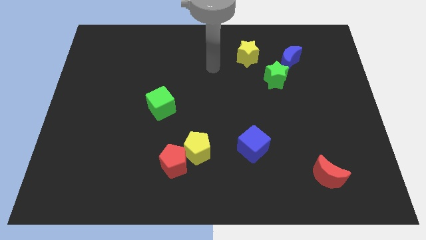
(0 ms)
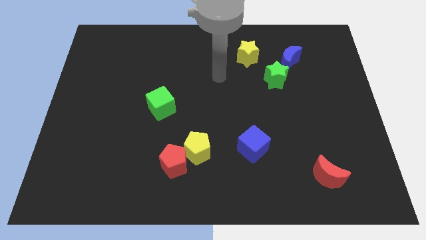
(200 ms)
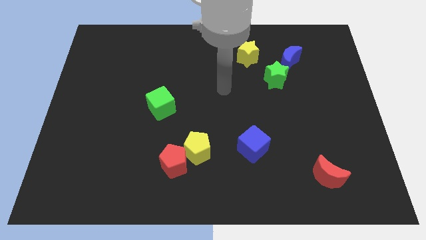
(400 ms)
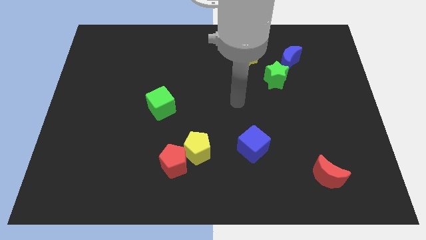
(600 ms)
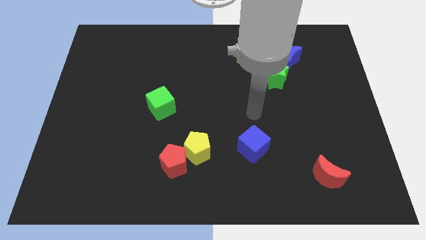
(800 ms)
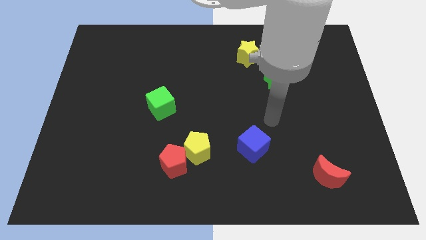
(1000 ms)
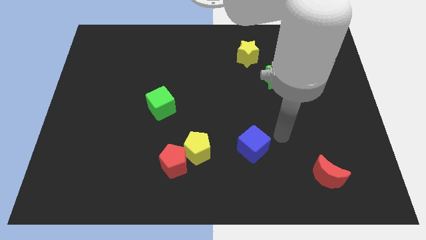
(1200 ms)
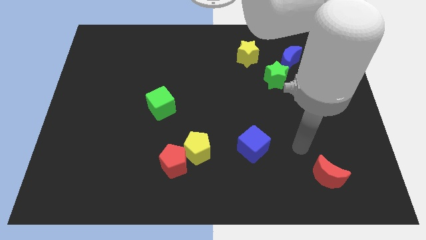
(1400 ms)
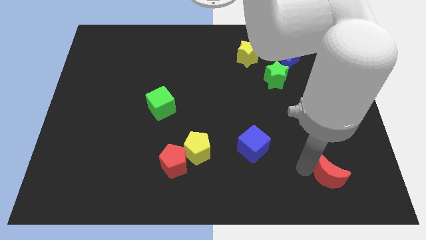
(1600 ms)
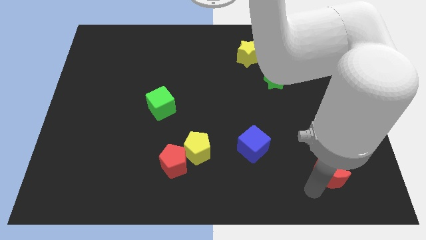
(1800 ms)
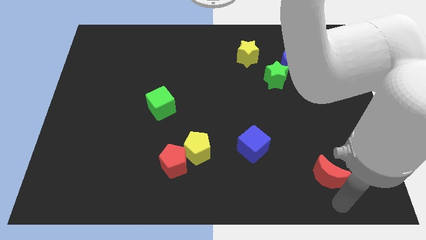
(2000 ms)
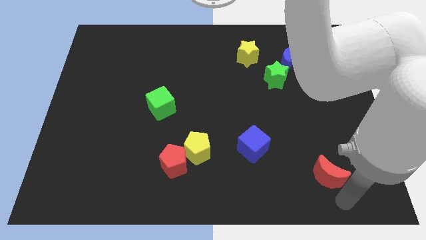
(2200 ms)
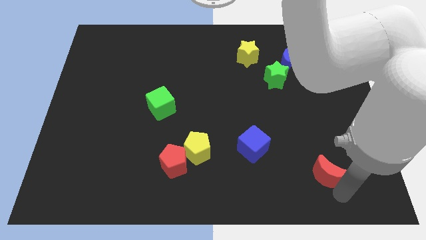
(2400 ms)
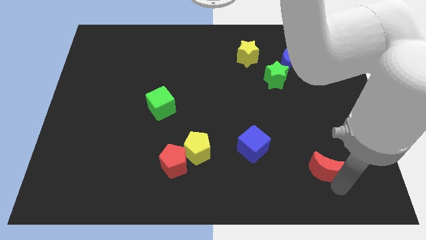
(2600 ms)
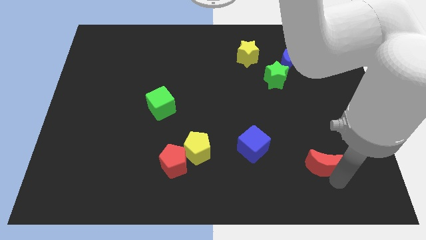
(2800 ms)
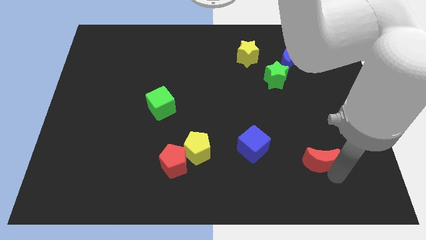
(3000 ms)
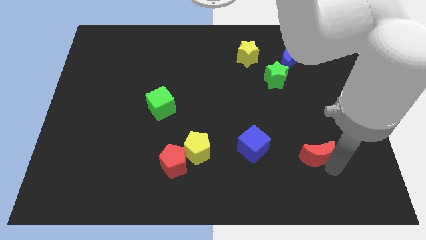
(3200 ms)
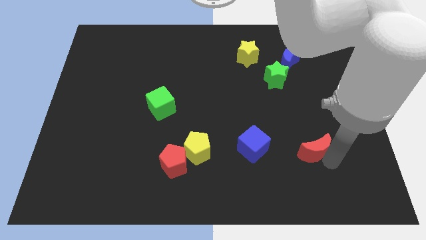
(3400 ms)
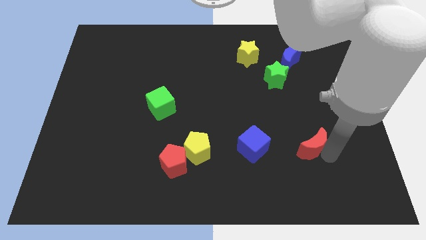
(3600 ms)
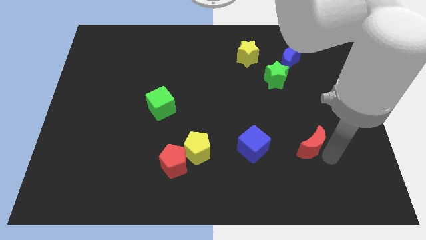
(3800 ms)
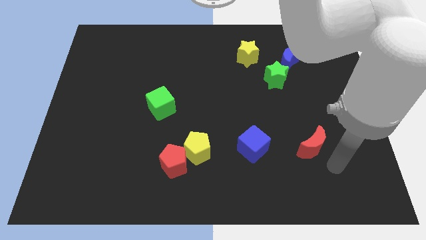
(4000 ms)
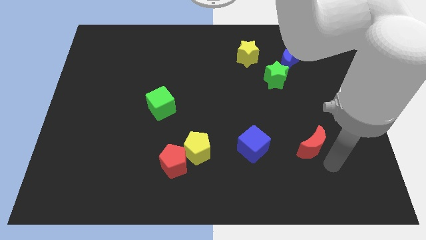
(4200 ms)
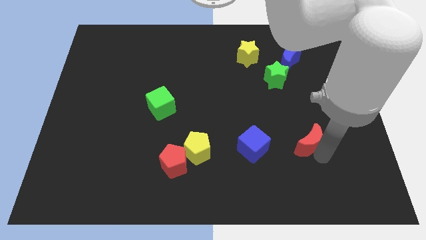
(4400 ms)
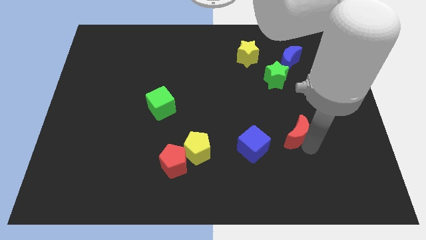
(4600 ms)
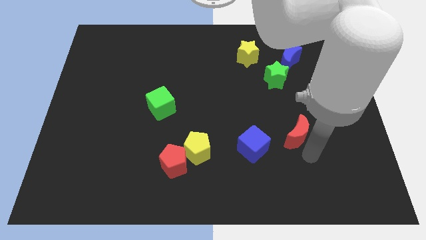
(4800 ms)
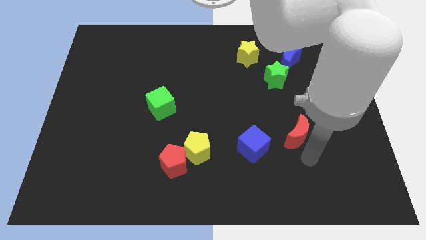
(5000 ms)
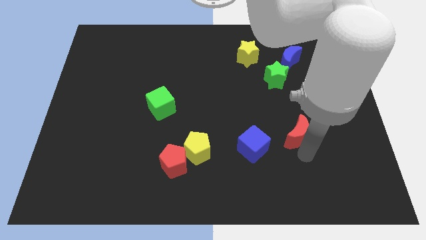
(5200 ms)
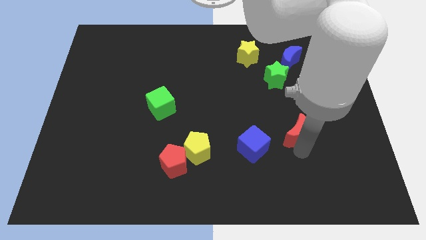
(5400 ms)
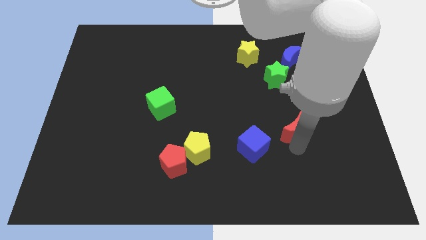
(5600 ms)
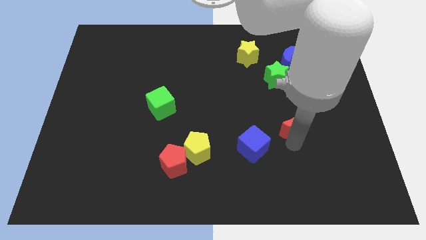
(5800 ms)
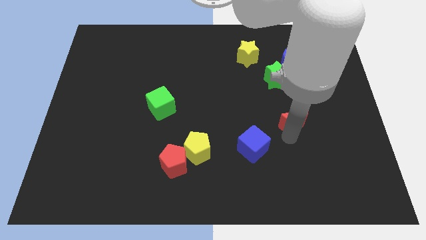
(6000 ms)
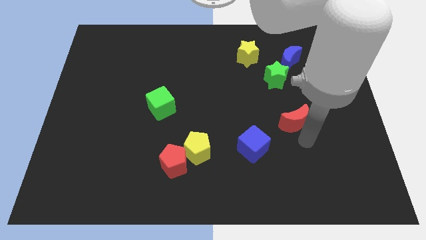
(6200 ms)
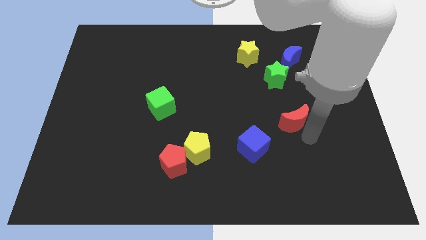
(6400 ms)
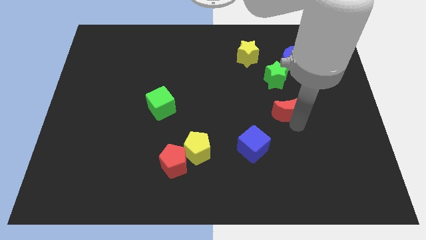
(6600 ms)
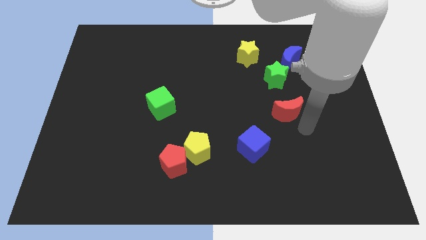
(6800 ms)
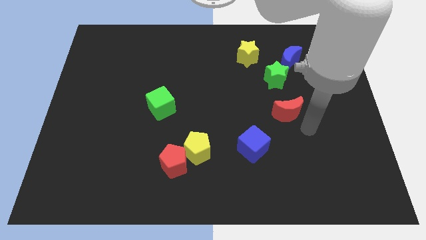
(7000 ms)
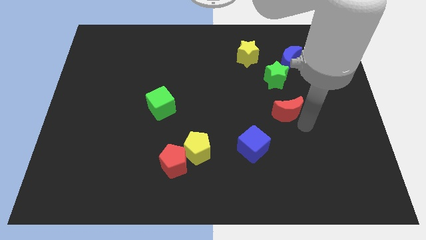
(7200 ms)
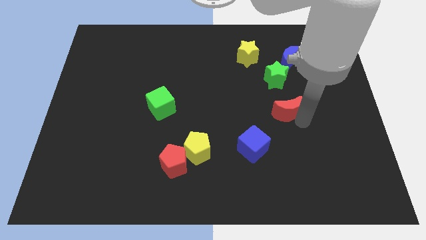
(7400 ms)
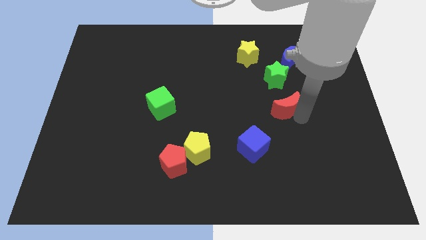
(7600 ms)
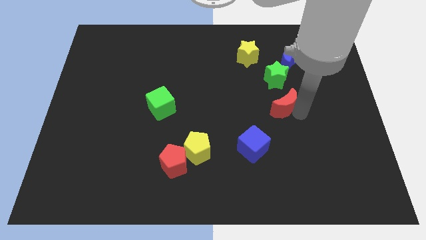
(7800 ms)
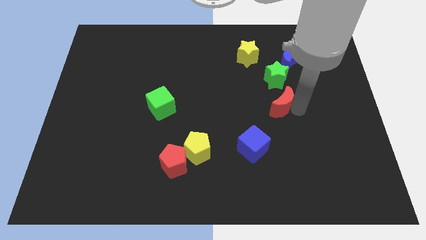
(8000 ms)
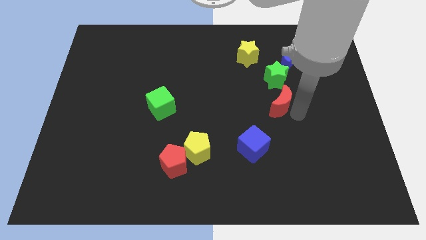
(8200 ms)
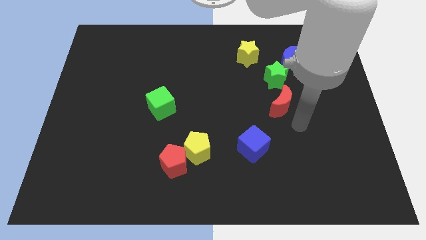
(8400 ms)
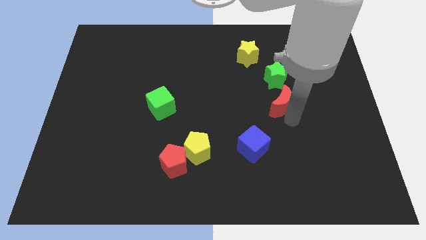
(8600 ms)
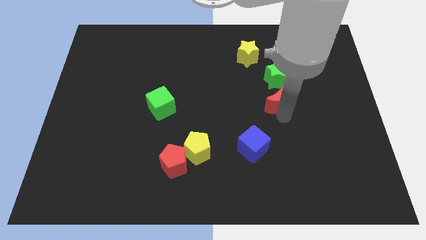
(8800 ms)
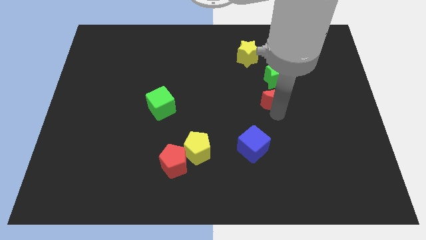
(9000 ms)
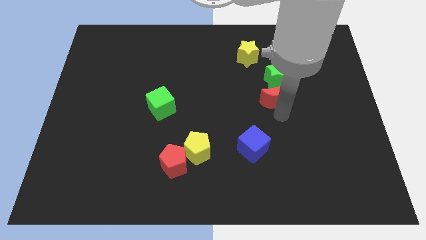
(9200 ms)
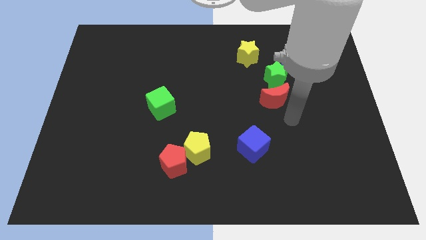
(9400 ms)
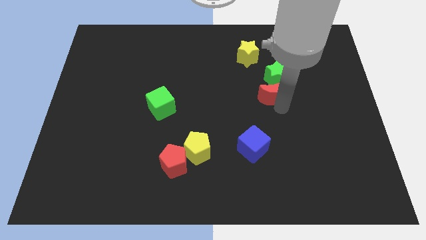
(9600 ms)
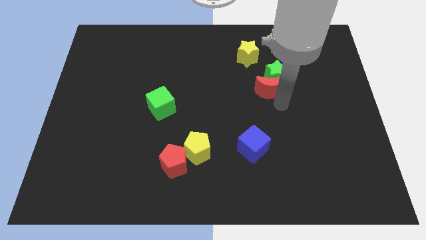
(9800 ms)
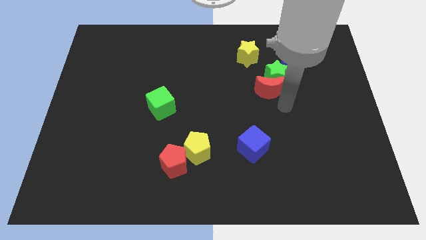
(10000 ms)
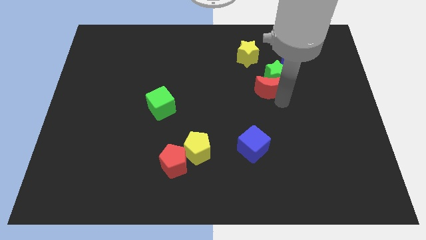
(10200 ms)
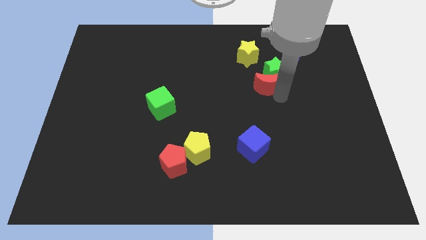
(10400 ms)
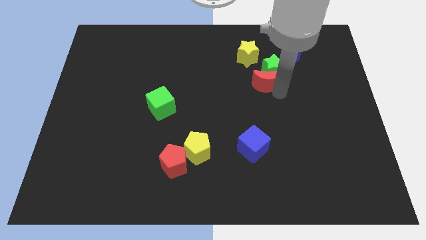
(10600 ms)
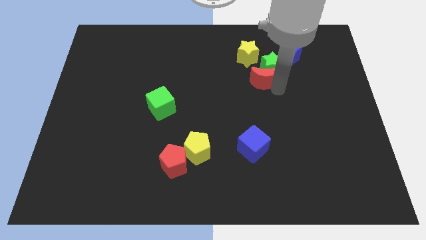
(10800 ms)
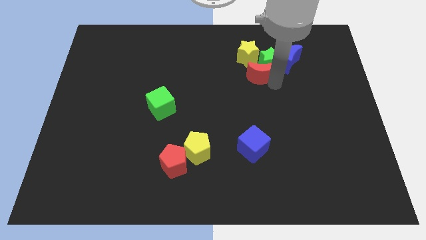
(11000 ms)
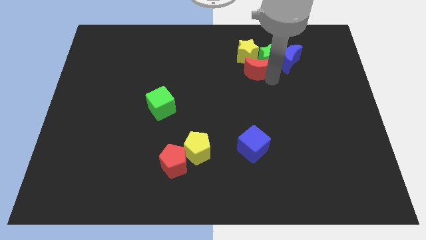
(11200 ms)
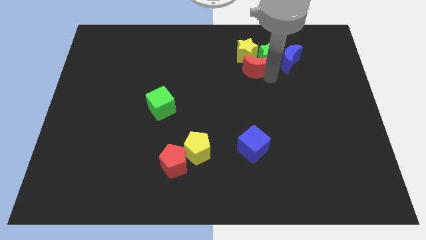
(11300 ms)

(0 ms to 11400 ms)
push the red moon next to the yellow star
